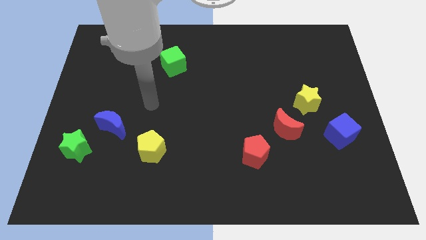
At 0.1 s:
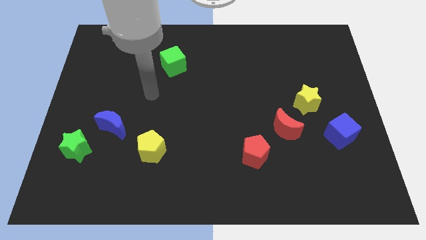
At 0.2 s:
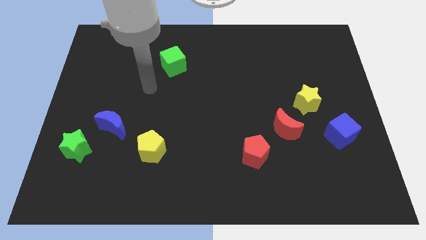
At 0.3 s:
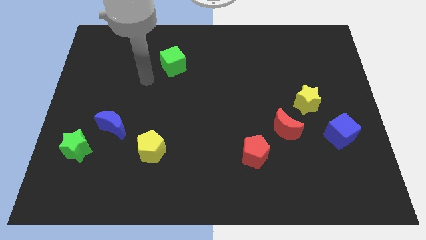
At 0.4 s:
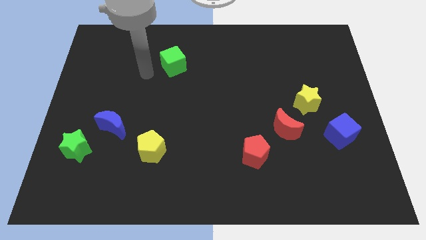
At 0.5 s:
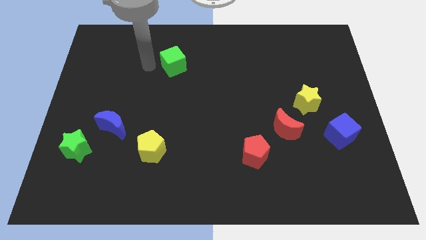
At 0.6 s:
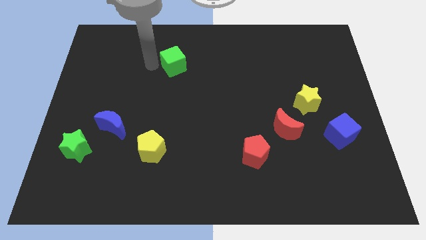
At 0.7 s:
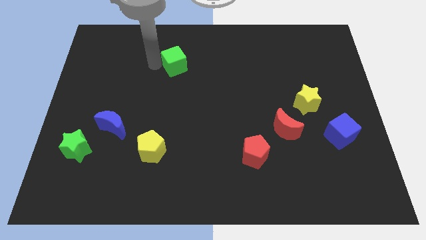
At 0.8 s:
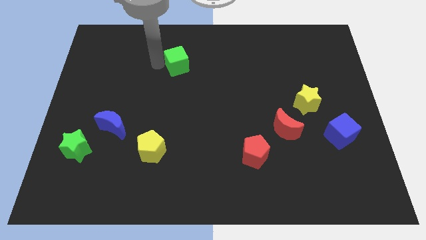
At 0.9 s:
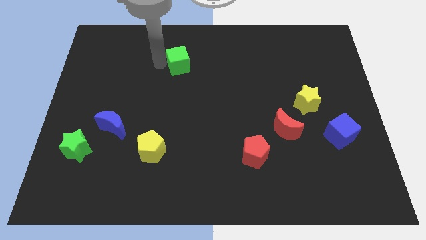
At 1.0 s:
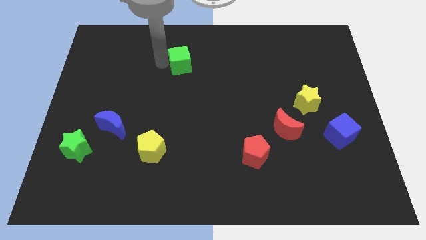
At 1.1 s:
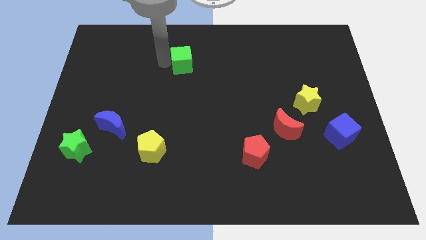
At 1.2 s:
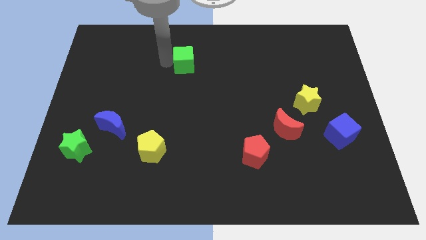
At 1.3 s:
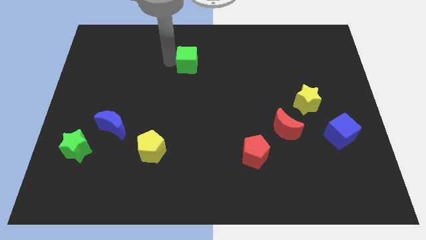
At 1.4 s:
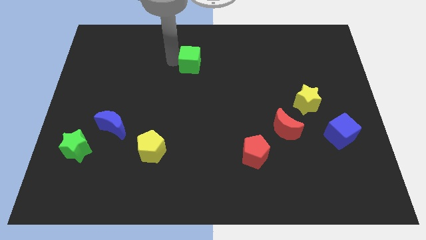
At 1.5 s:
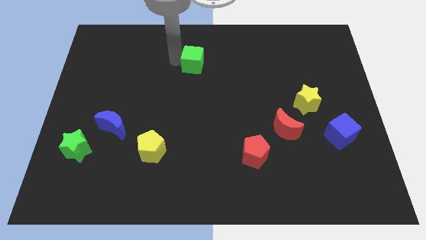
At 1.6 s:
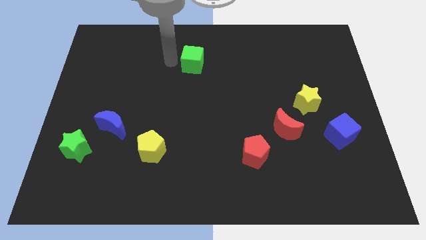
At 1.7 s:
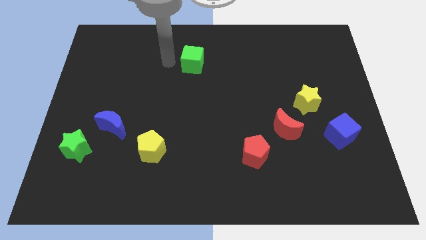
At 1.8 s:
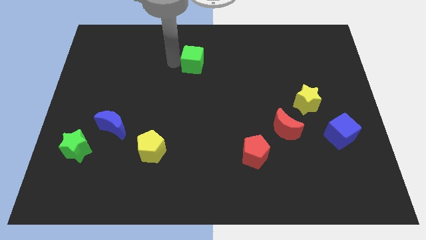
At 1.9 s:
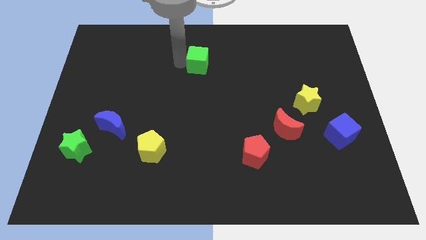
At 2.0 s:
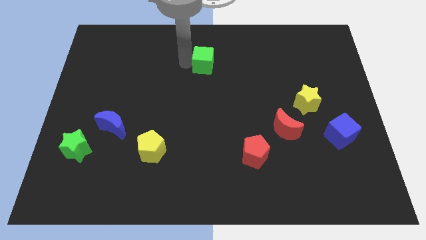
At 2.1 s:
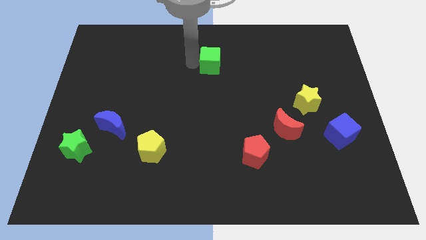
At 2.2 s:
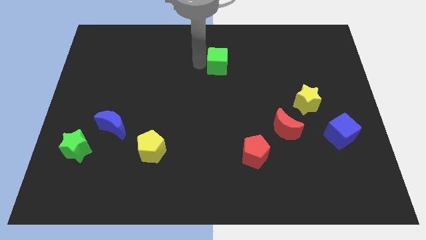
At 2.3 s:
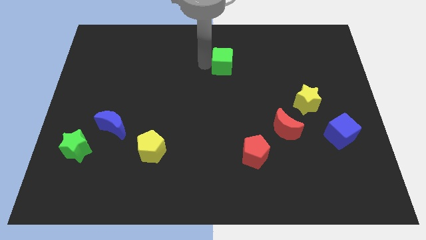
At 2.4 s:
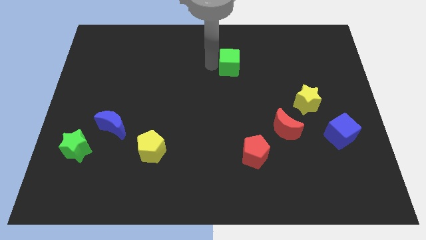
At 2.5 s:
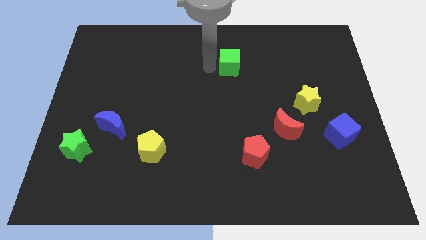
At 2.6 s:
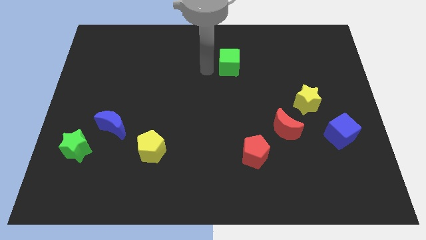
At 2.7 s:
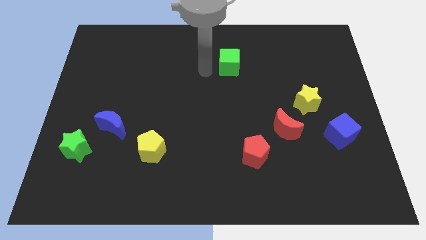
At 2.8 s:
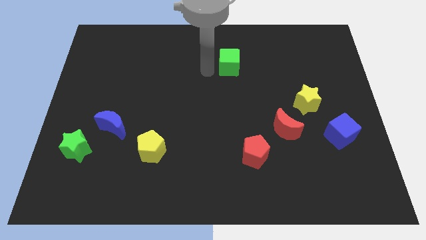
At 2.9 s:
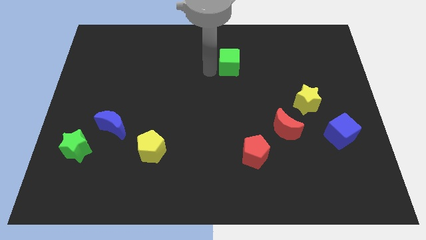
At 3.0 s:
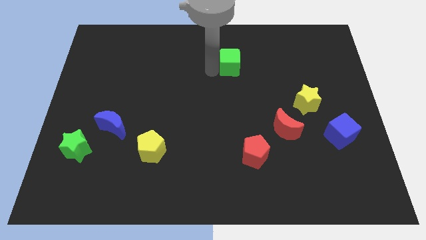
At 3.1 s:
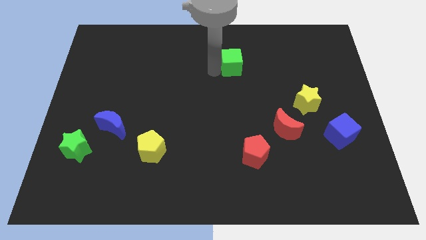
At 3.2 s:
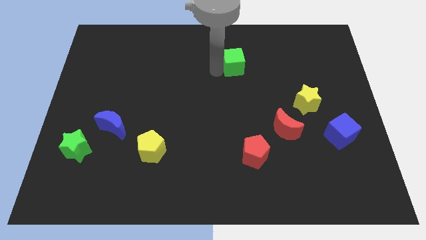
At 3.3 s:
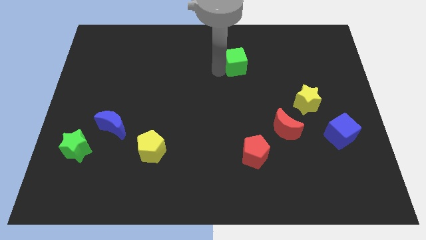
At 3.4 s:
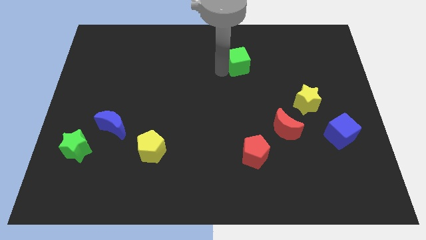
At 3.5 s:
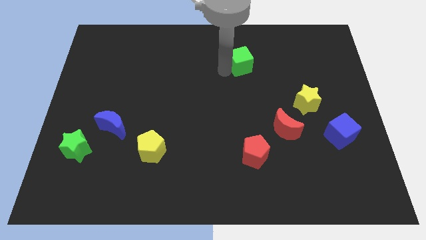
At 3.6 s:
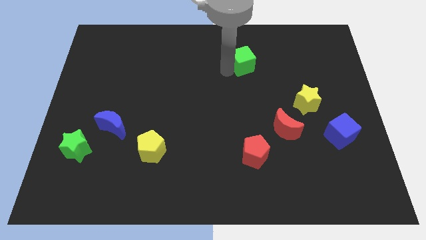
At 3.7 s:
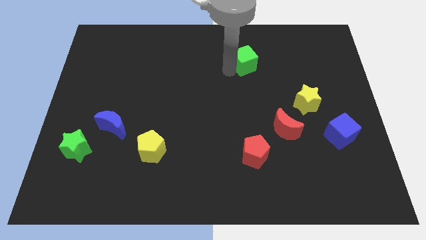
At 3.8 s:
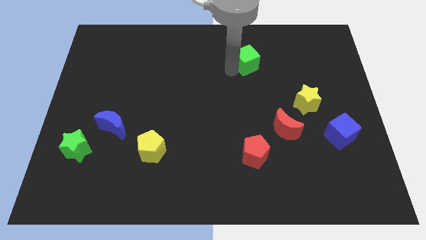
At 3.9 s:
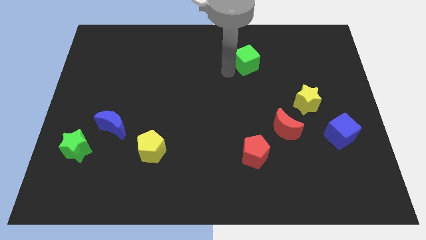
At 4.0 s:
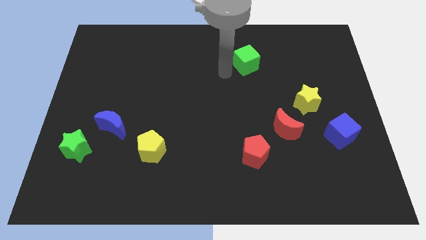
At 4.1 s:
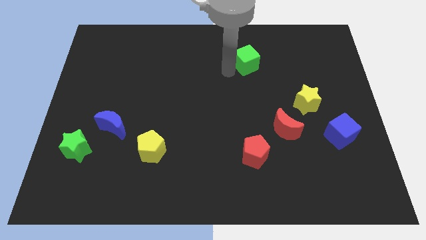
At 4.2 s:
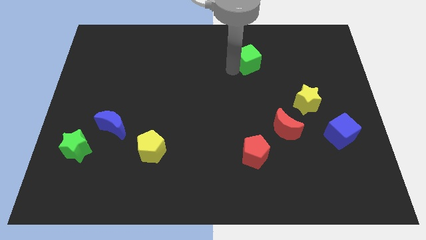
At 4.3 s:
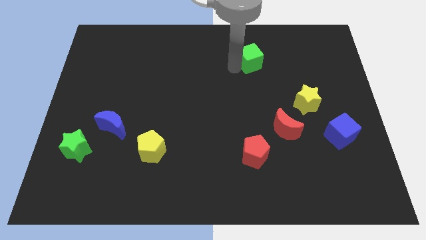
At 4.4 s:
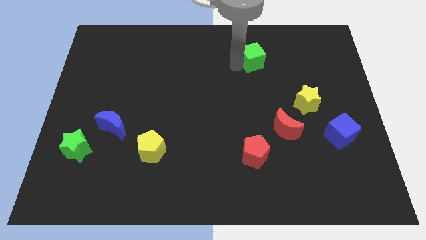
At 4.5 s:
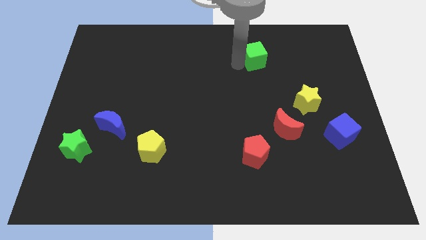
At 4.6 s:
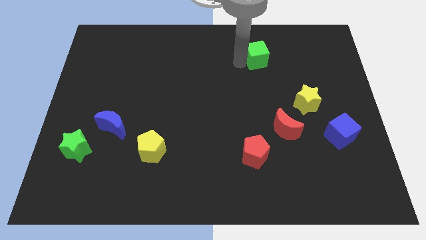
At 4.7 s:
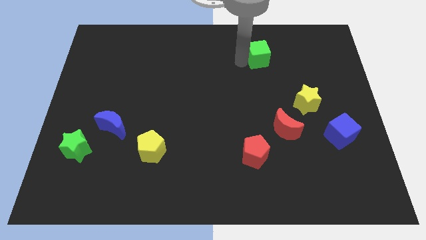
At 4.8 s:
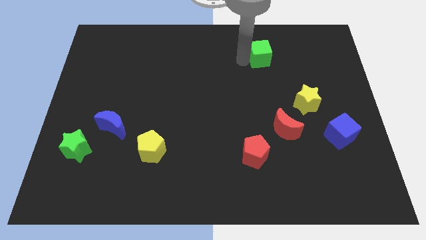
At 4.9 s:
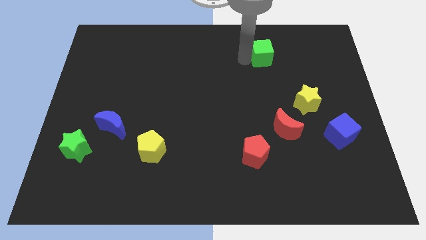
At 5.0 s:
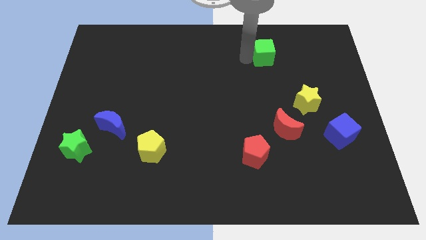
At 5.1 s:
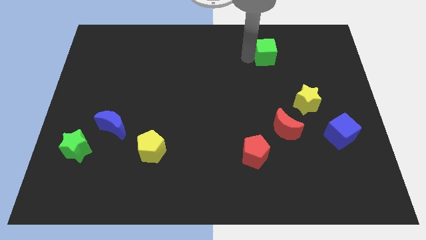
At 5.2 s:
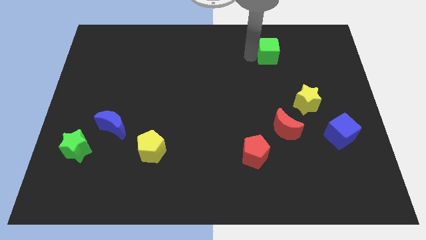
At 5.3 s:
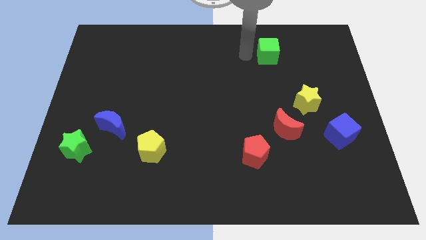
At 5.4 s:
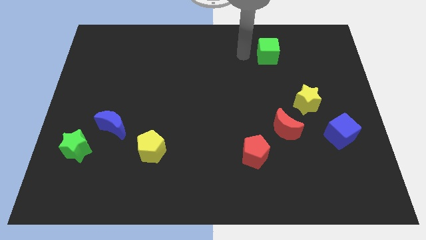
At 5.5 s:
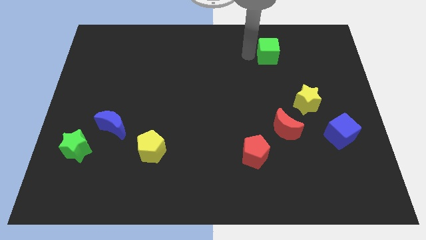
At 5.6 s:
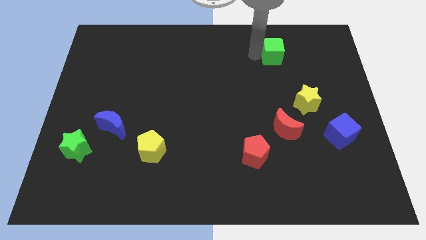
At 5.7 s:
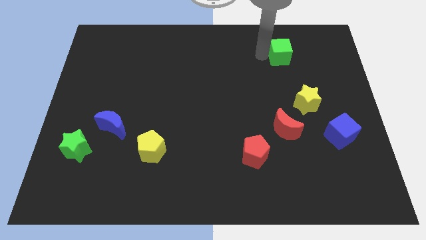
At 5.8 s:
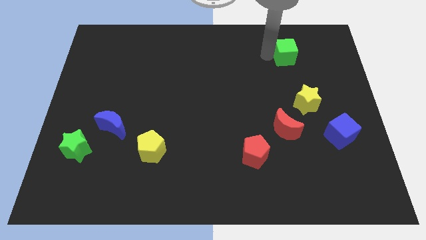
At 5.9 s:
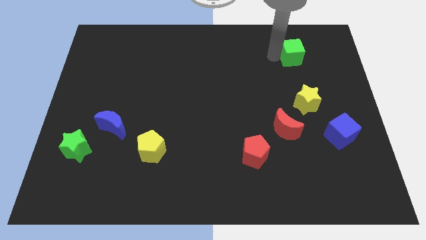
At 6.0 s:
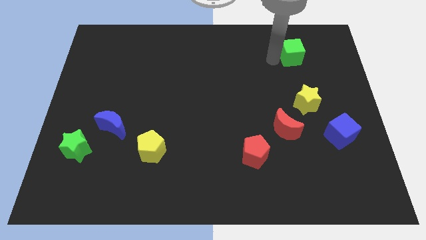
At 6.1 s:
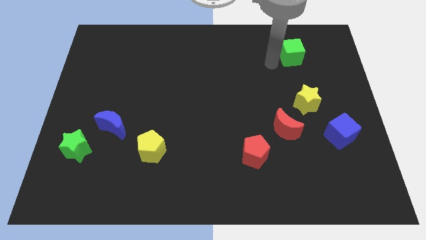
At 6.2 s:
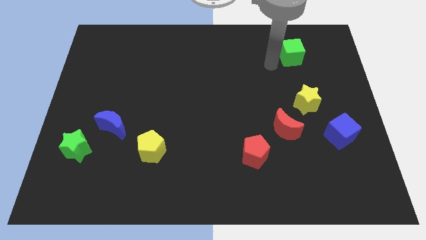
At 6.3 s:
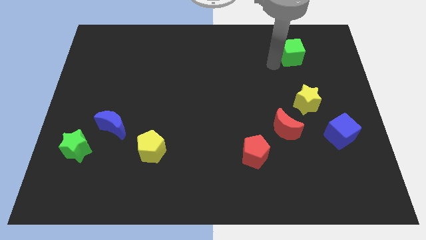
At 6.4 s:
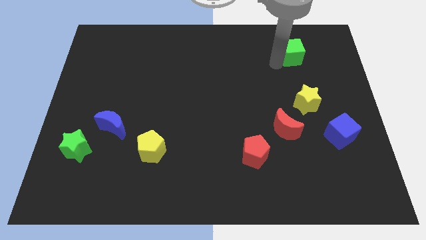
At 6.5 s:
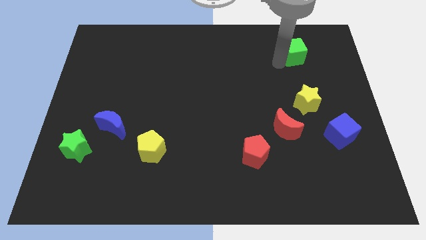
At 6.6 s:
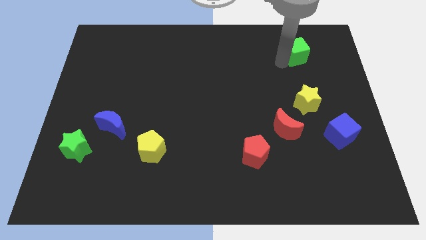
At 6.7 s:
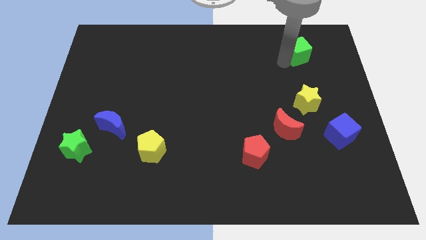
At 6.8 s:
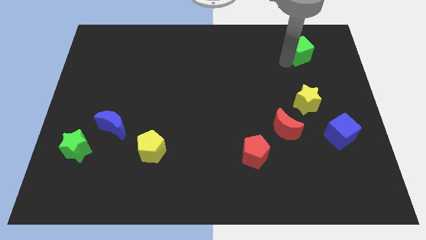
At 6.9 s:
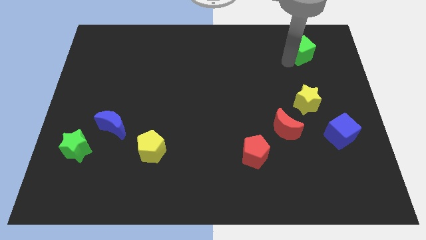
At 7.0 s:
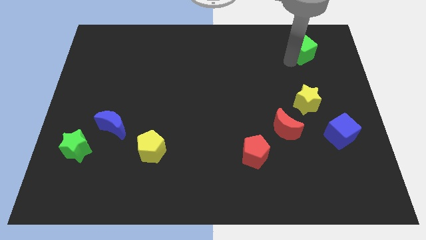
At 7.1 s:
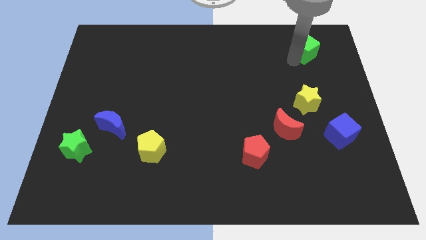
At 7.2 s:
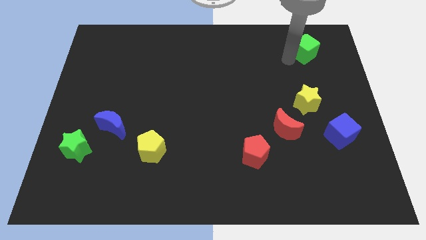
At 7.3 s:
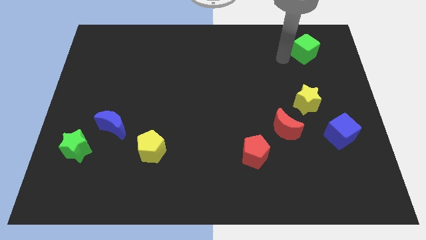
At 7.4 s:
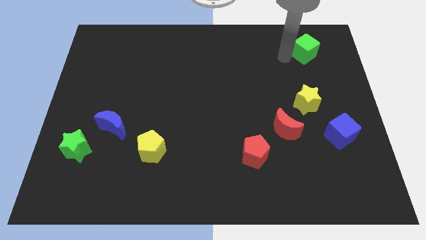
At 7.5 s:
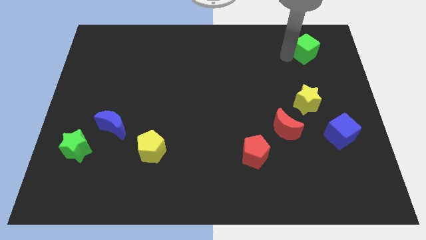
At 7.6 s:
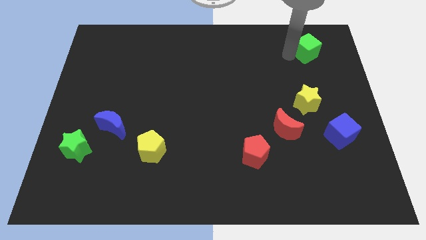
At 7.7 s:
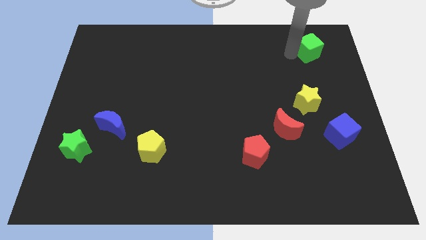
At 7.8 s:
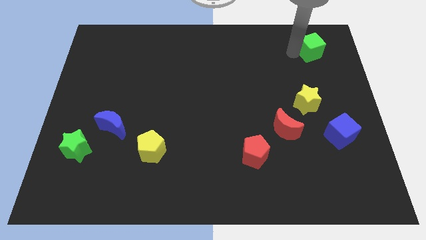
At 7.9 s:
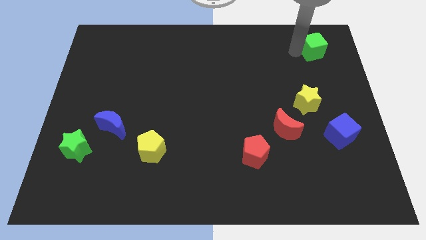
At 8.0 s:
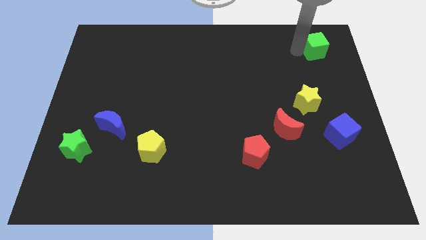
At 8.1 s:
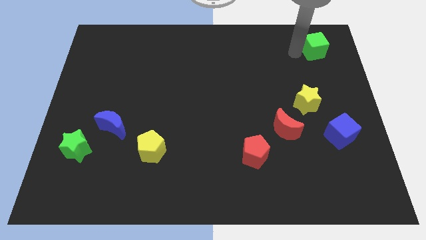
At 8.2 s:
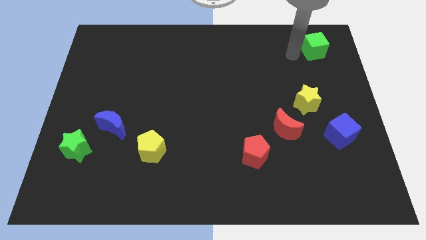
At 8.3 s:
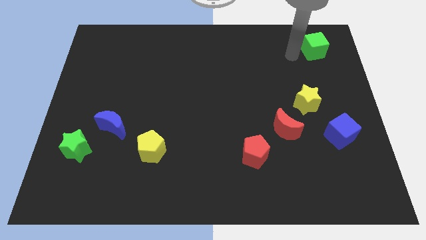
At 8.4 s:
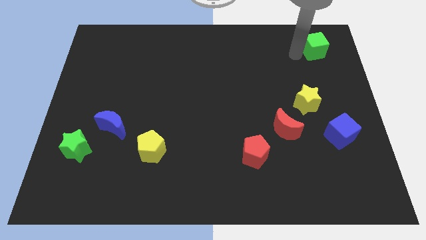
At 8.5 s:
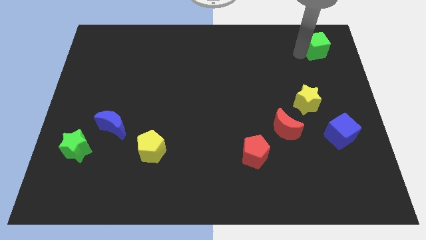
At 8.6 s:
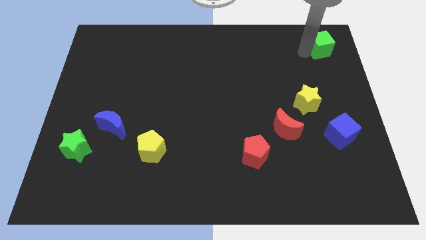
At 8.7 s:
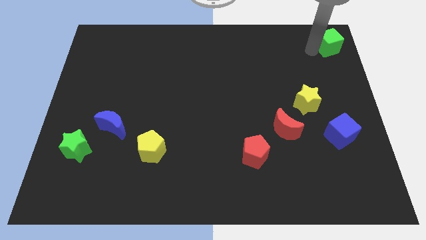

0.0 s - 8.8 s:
move the green cube to the top right of the board
